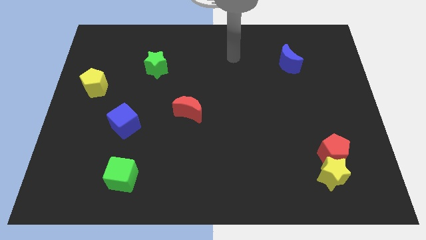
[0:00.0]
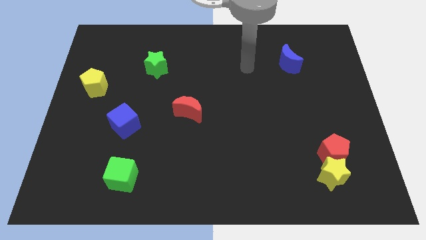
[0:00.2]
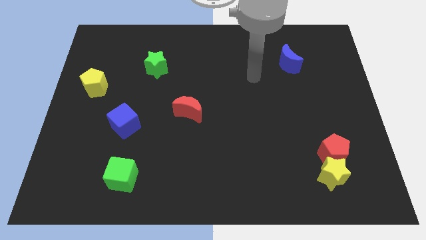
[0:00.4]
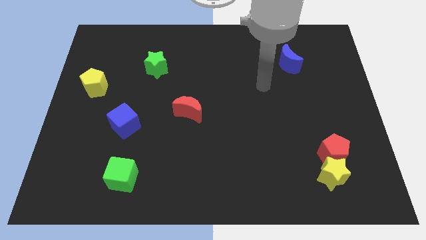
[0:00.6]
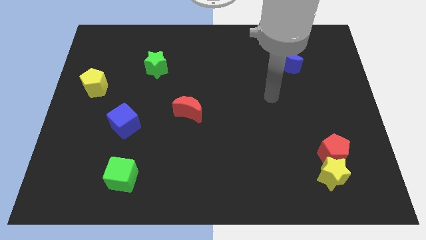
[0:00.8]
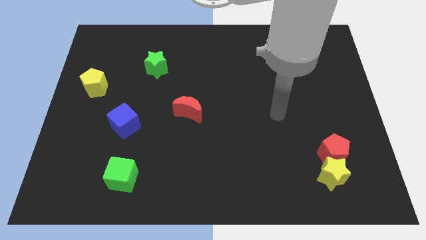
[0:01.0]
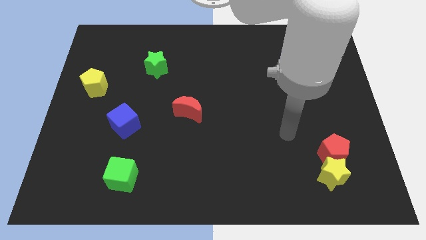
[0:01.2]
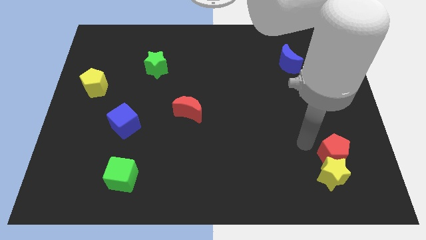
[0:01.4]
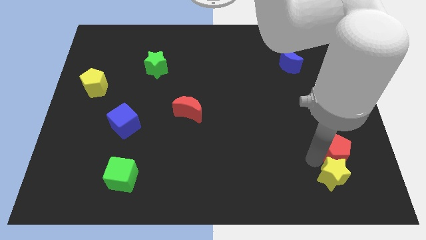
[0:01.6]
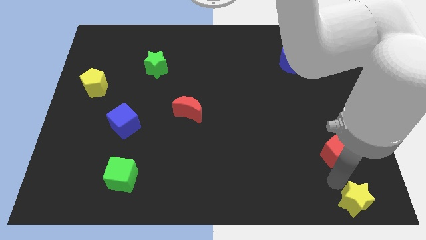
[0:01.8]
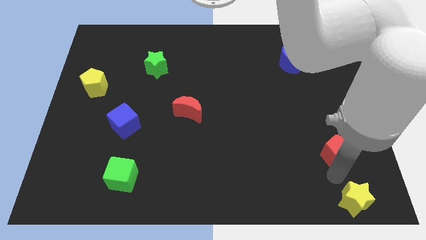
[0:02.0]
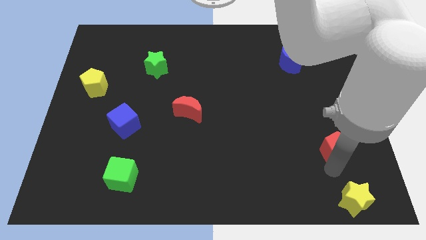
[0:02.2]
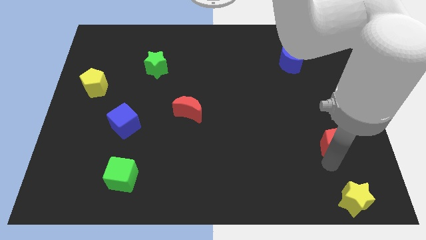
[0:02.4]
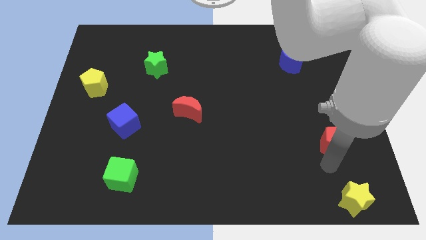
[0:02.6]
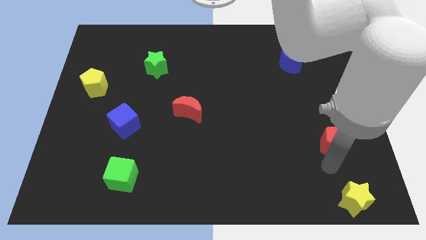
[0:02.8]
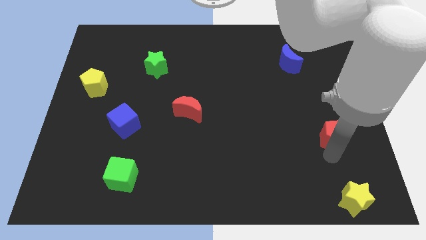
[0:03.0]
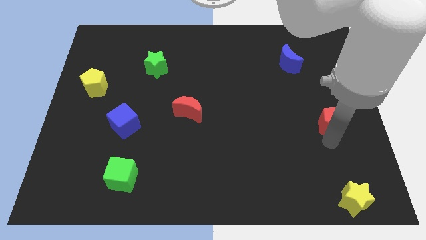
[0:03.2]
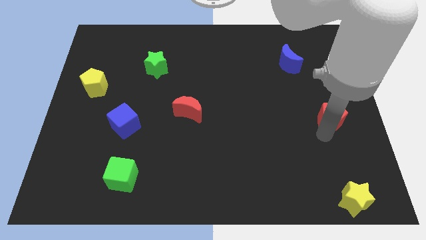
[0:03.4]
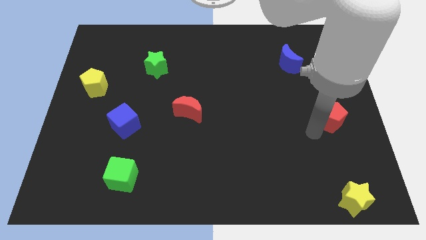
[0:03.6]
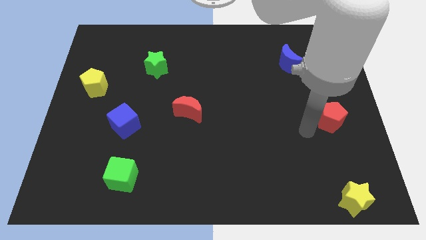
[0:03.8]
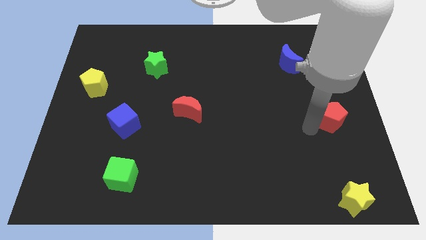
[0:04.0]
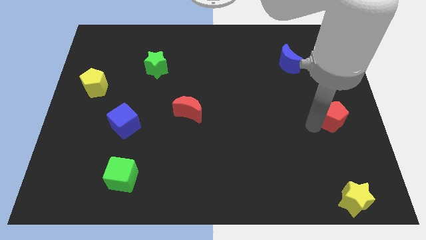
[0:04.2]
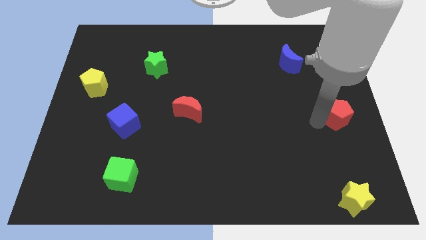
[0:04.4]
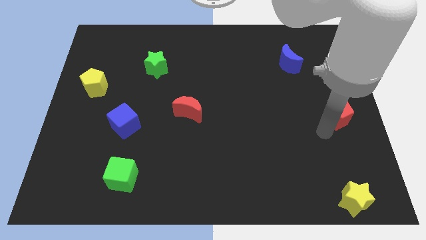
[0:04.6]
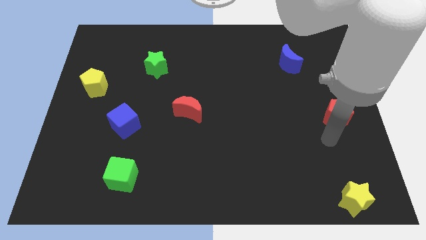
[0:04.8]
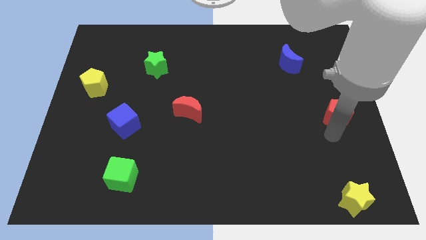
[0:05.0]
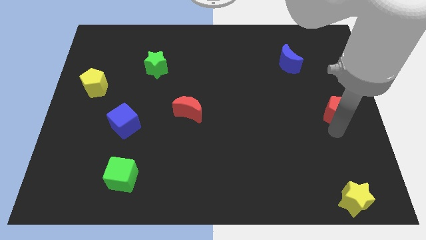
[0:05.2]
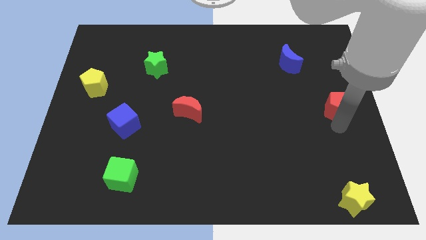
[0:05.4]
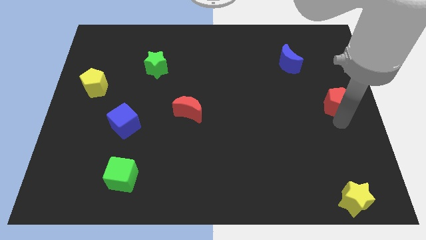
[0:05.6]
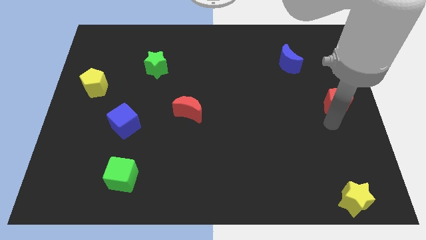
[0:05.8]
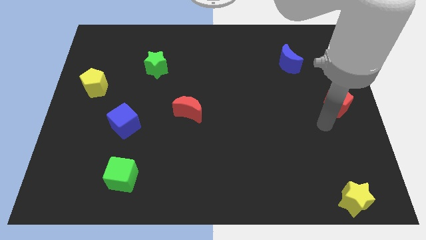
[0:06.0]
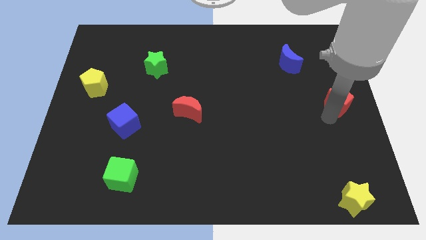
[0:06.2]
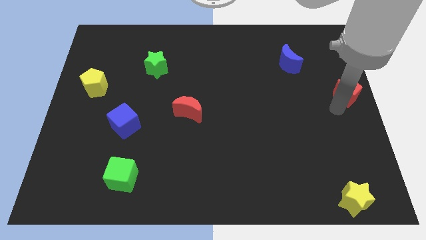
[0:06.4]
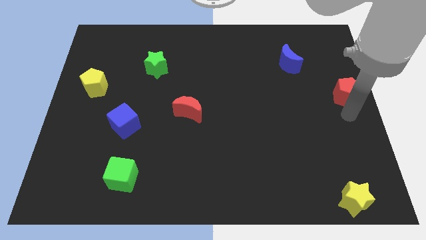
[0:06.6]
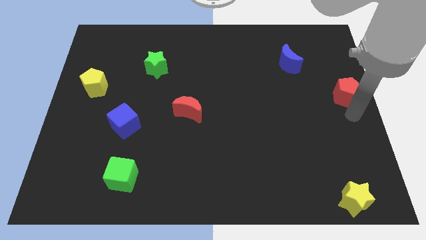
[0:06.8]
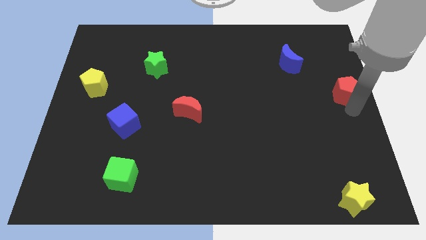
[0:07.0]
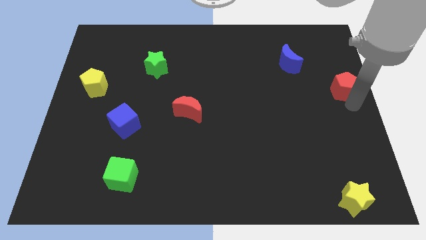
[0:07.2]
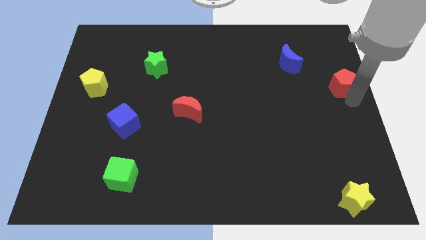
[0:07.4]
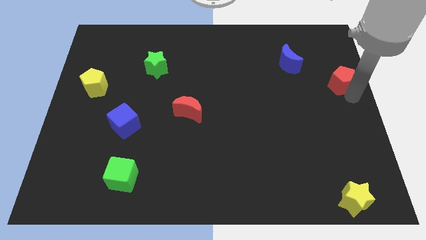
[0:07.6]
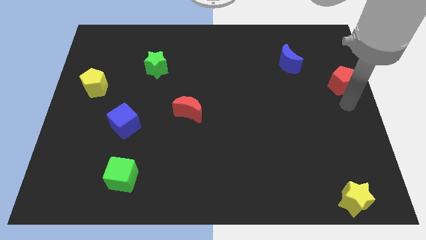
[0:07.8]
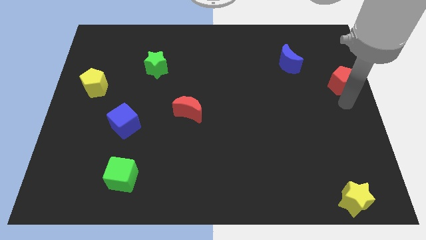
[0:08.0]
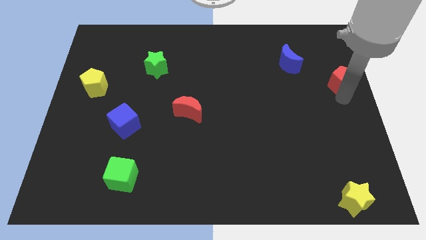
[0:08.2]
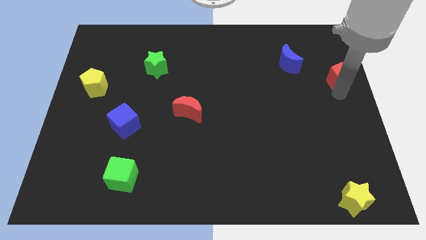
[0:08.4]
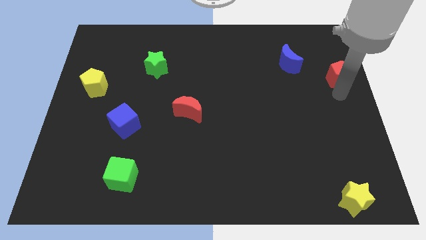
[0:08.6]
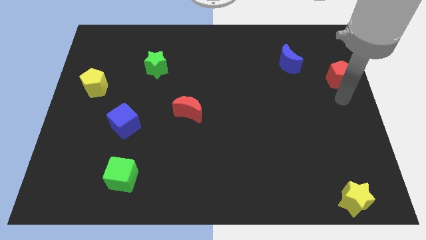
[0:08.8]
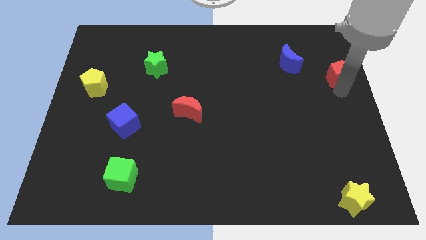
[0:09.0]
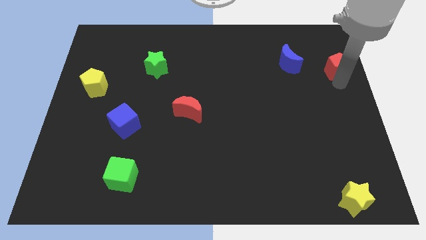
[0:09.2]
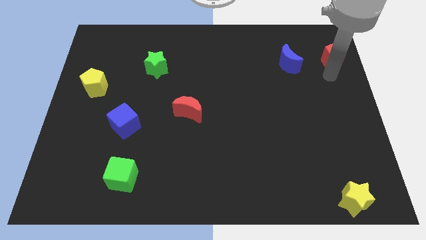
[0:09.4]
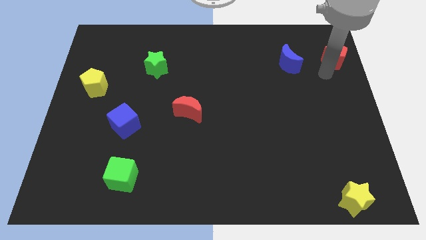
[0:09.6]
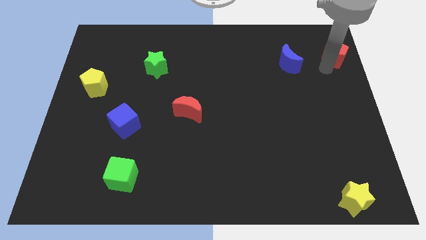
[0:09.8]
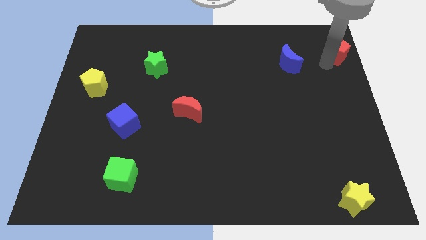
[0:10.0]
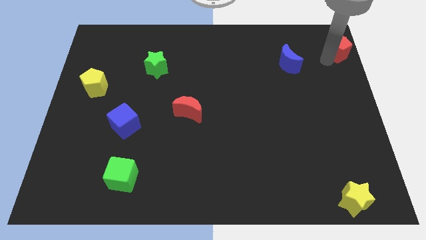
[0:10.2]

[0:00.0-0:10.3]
put the red pentagon to the top right of the board
